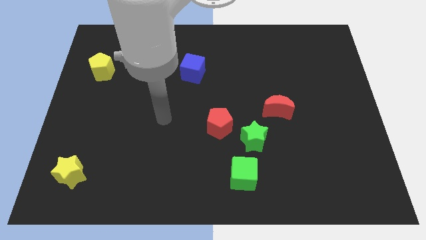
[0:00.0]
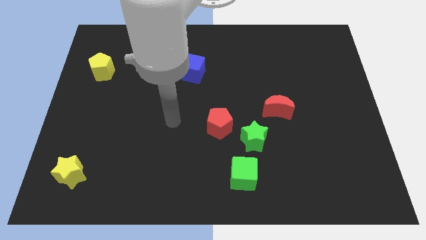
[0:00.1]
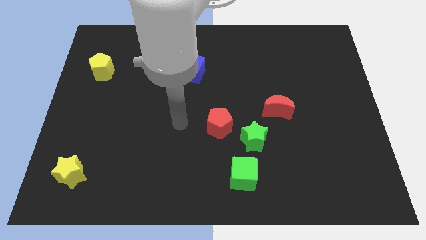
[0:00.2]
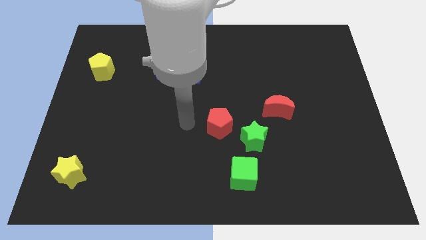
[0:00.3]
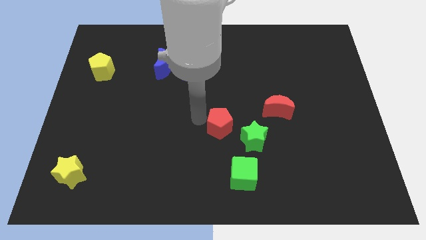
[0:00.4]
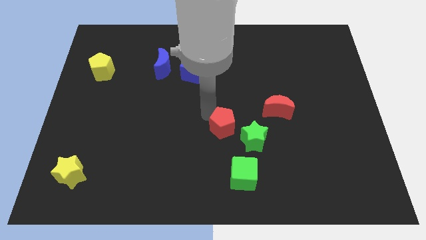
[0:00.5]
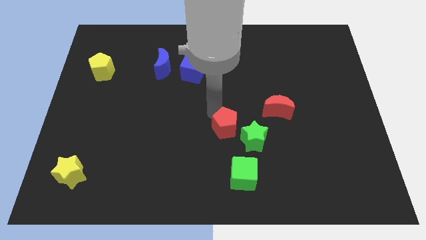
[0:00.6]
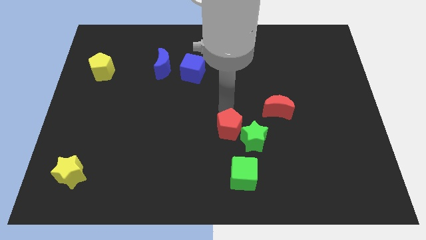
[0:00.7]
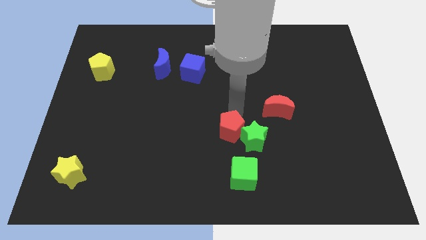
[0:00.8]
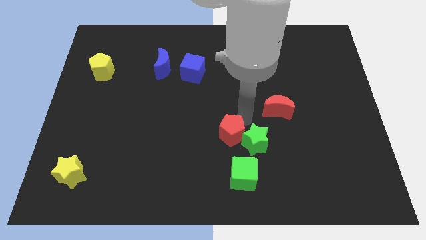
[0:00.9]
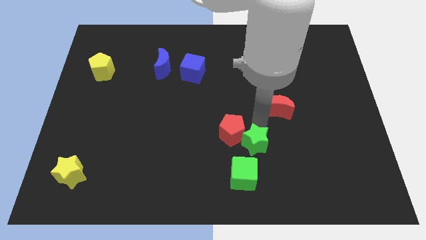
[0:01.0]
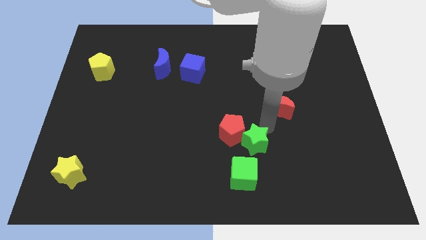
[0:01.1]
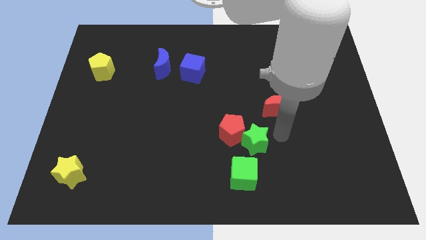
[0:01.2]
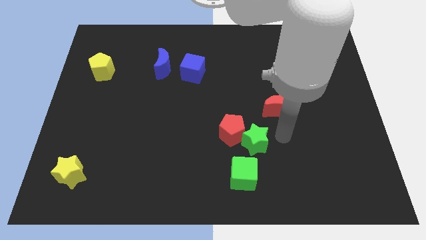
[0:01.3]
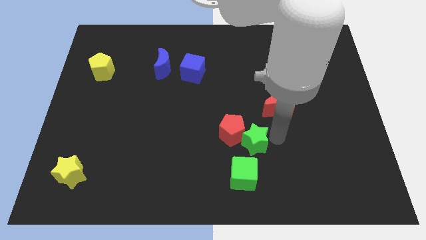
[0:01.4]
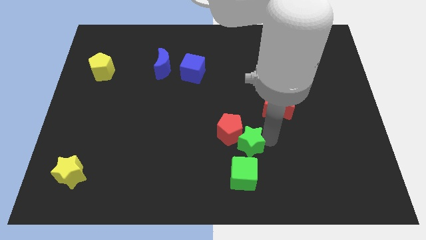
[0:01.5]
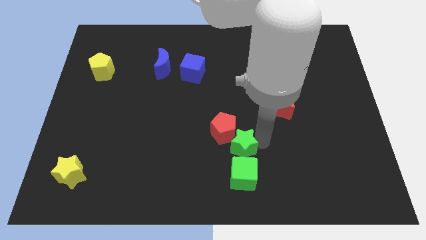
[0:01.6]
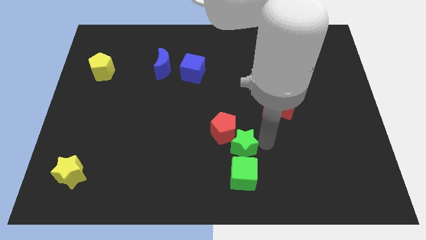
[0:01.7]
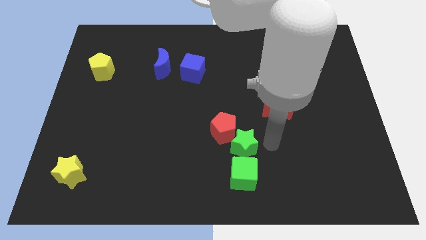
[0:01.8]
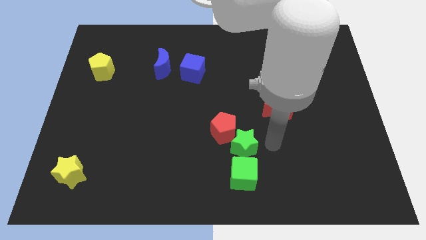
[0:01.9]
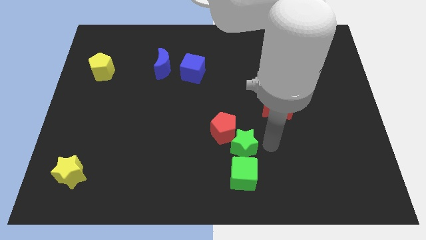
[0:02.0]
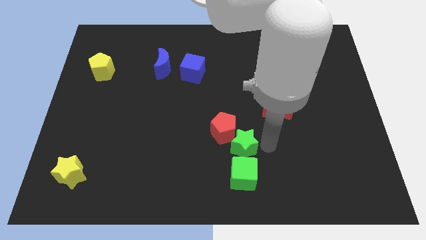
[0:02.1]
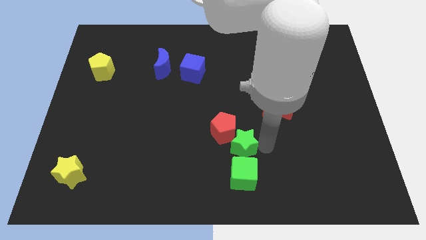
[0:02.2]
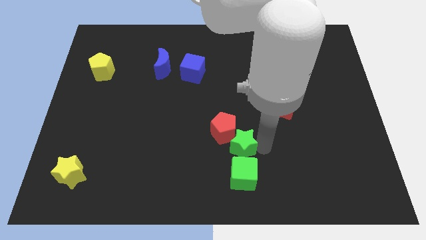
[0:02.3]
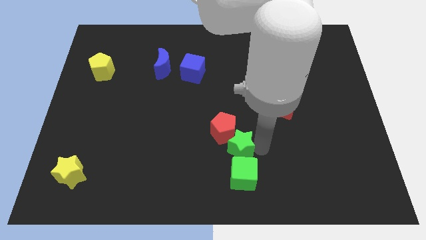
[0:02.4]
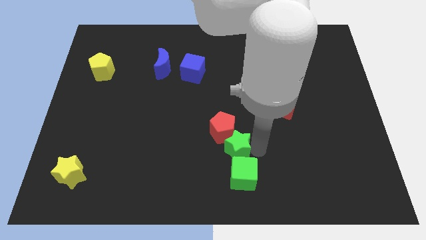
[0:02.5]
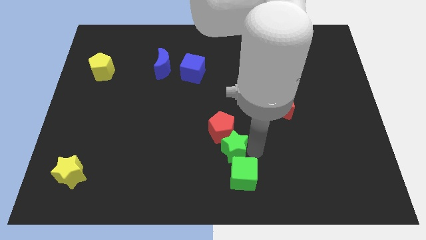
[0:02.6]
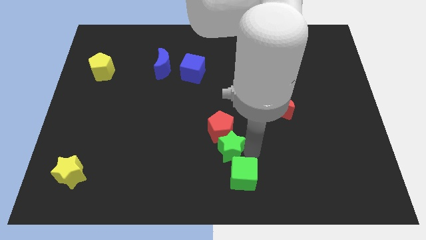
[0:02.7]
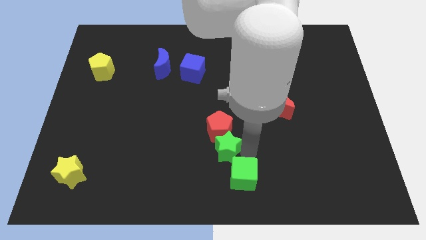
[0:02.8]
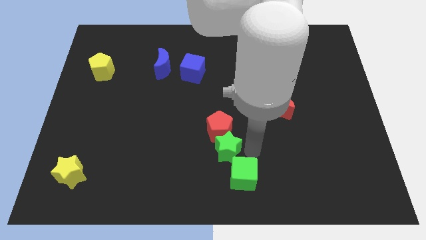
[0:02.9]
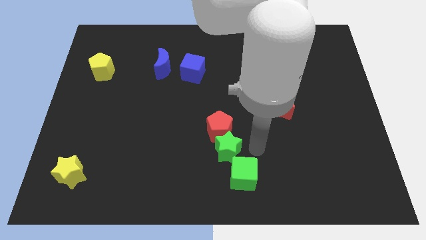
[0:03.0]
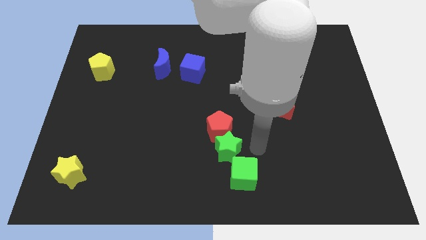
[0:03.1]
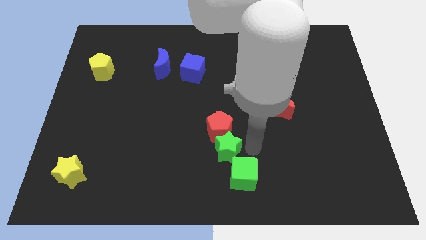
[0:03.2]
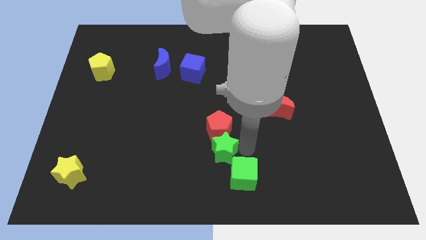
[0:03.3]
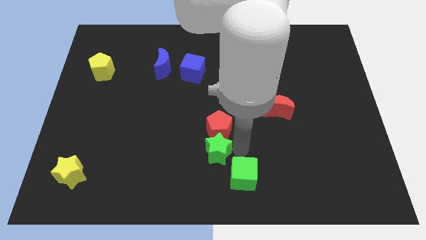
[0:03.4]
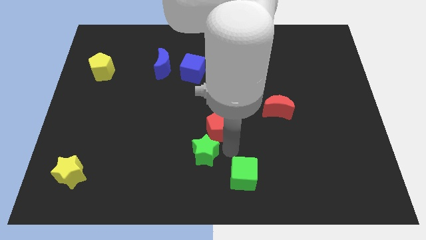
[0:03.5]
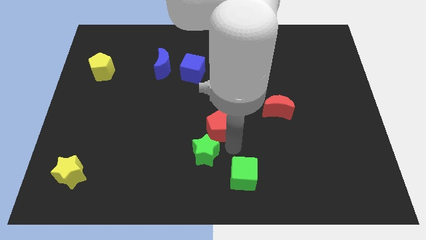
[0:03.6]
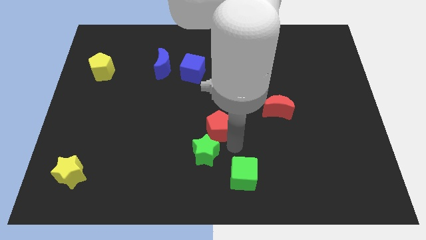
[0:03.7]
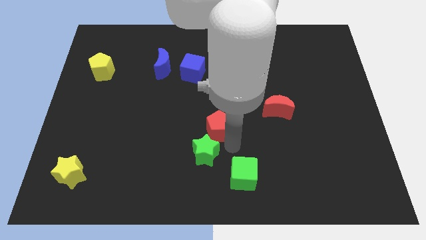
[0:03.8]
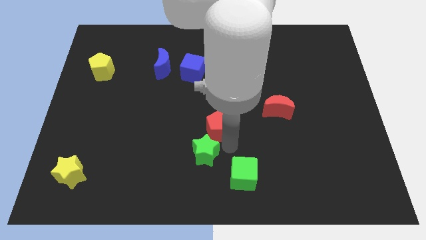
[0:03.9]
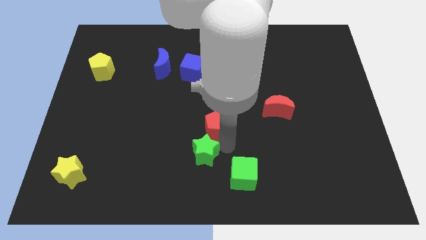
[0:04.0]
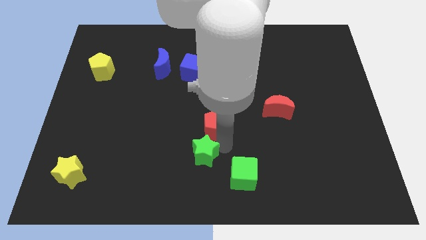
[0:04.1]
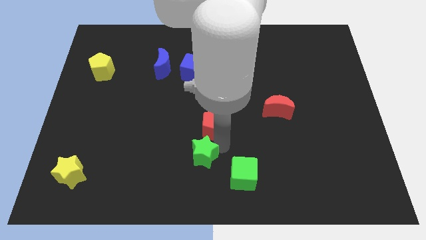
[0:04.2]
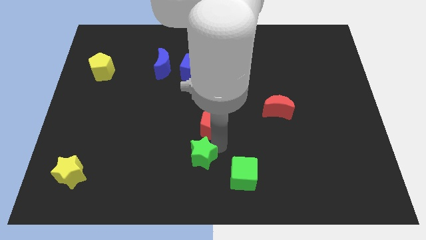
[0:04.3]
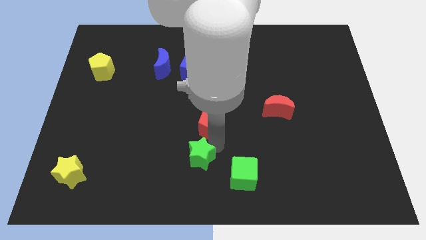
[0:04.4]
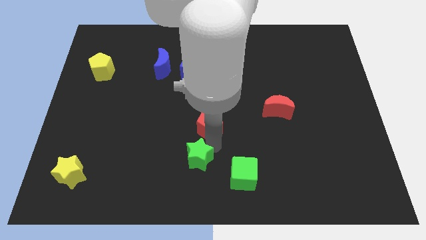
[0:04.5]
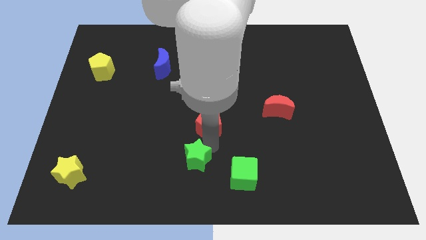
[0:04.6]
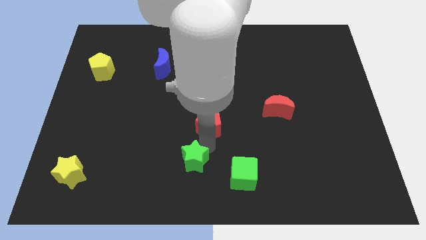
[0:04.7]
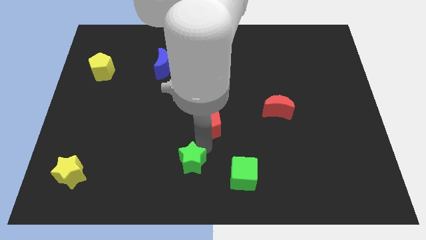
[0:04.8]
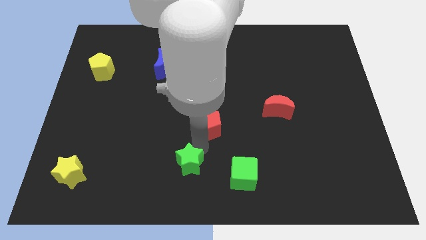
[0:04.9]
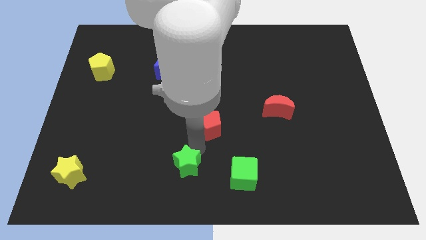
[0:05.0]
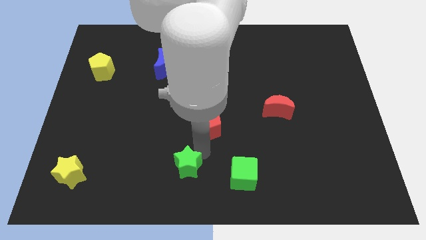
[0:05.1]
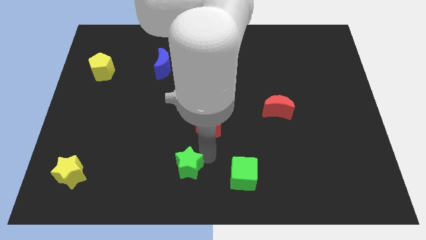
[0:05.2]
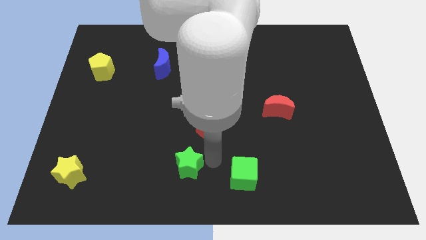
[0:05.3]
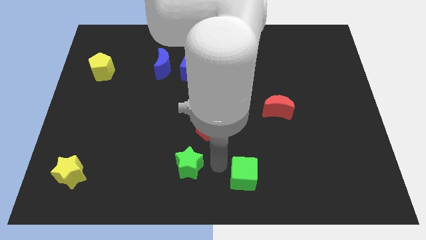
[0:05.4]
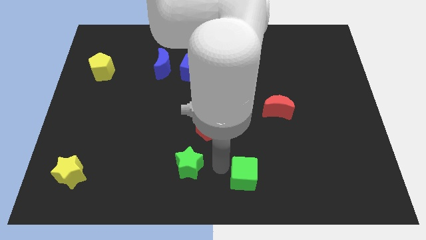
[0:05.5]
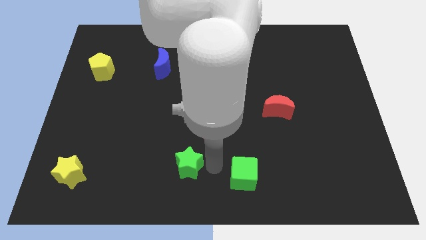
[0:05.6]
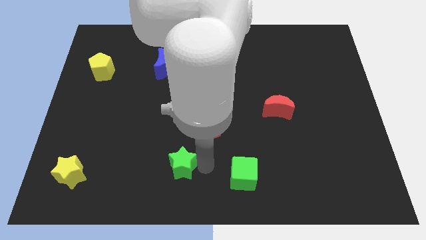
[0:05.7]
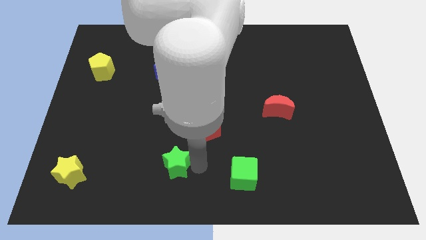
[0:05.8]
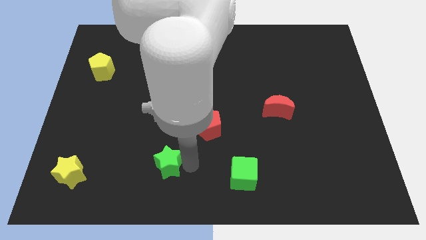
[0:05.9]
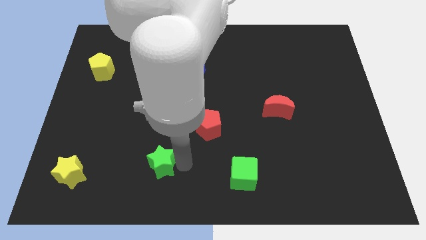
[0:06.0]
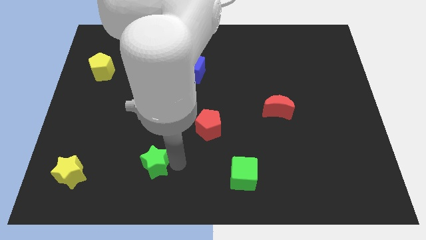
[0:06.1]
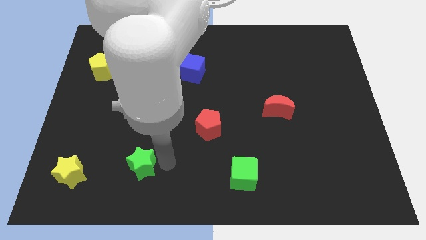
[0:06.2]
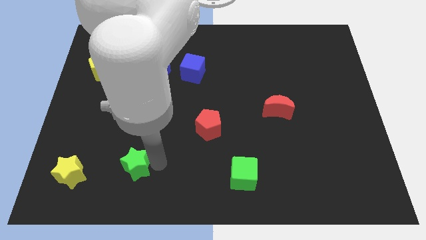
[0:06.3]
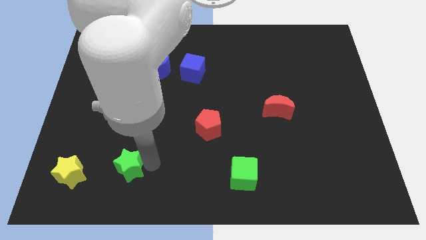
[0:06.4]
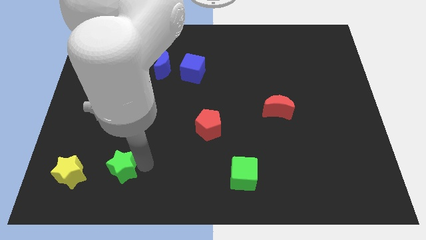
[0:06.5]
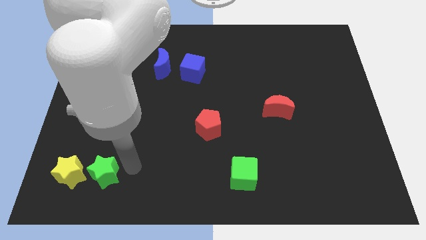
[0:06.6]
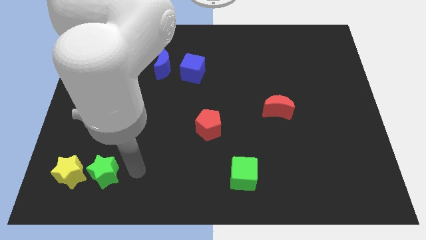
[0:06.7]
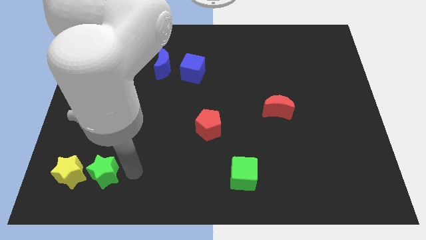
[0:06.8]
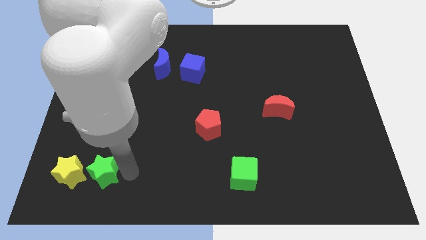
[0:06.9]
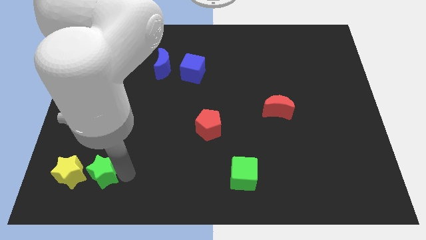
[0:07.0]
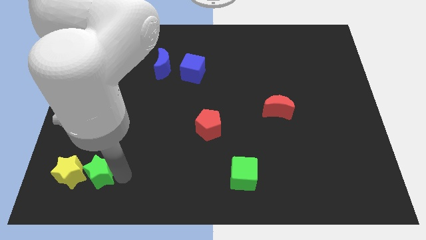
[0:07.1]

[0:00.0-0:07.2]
push the green star towards the yellow star

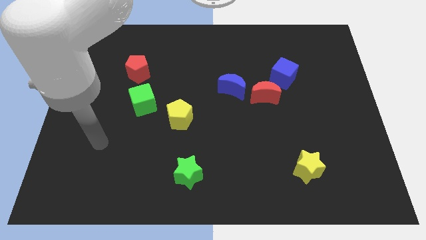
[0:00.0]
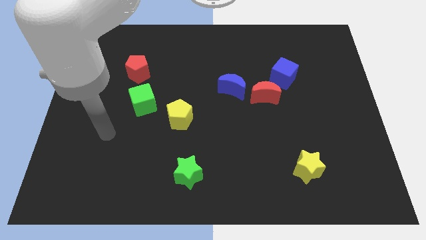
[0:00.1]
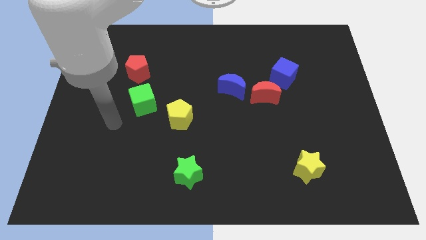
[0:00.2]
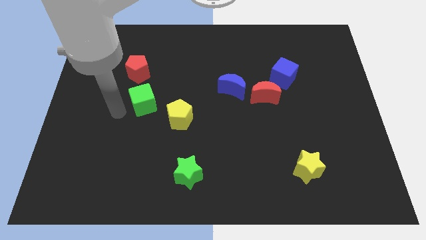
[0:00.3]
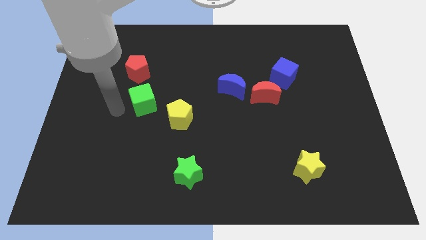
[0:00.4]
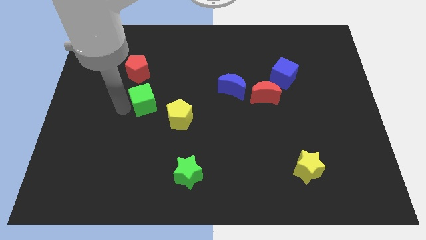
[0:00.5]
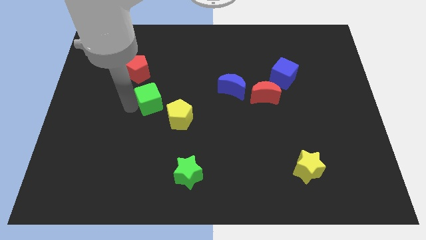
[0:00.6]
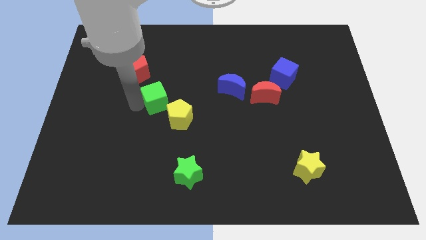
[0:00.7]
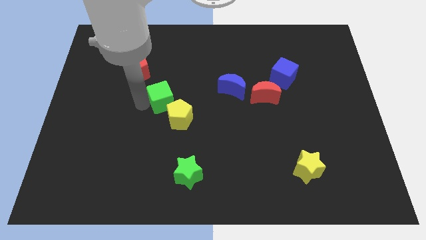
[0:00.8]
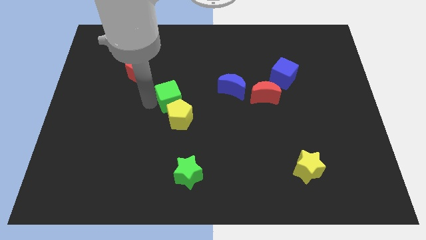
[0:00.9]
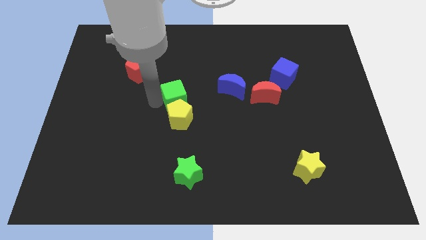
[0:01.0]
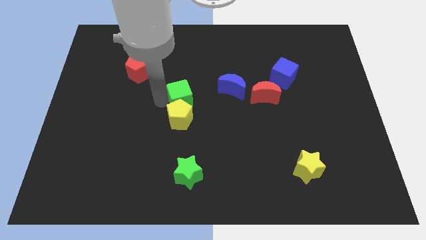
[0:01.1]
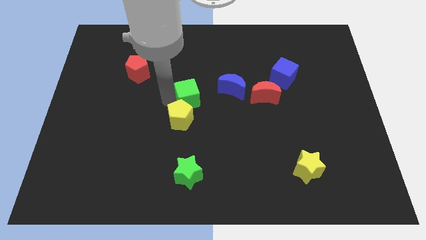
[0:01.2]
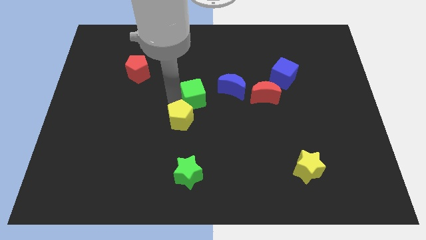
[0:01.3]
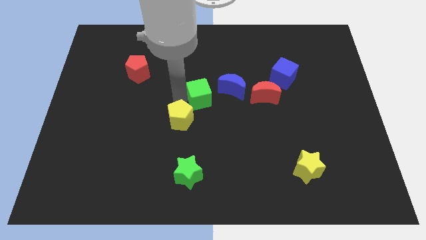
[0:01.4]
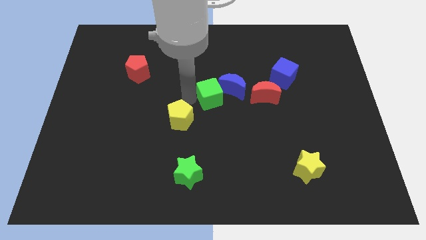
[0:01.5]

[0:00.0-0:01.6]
move the green cube next to the blue moon
